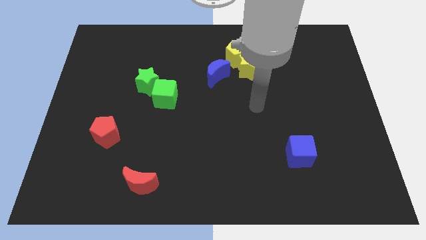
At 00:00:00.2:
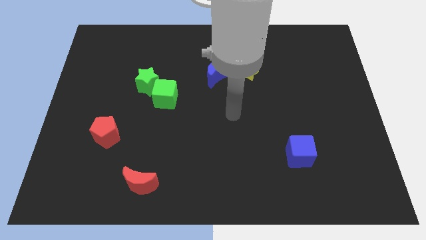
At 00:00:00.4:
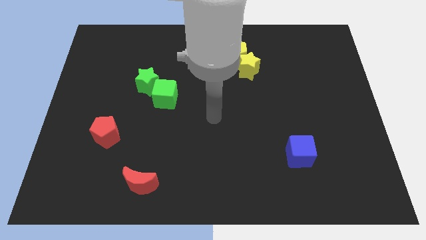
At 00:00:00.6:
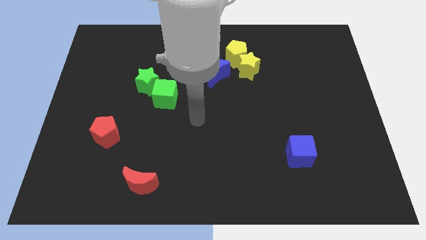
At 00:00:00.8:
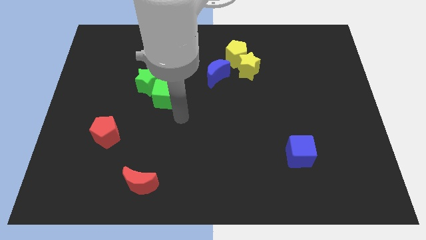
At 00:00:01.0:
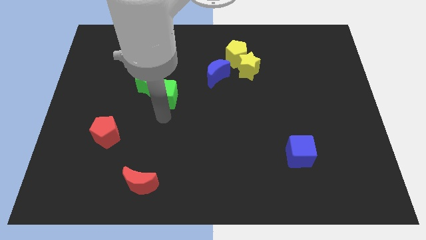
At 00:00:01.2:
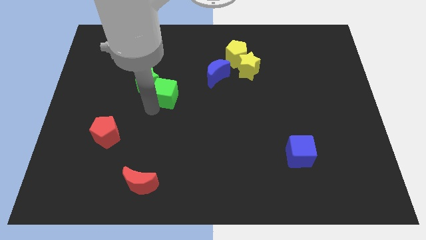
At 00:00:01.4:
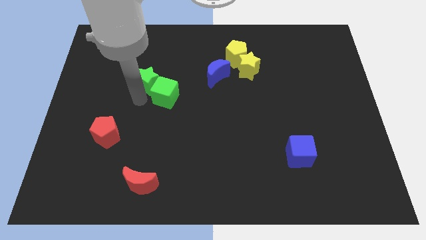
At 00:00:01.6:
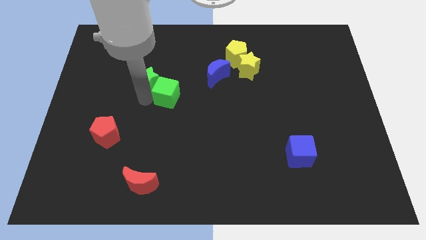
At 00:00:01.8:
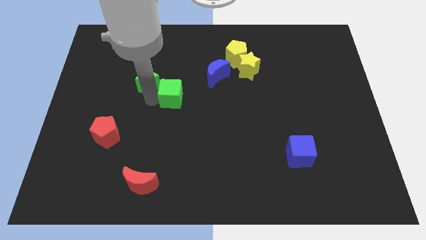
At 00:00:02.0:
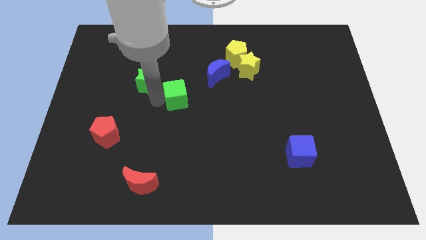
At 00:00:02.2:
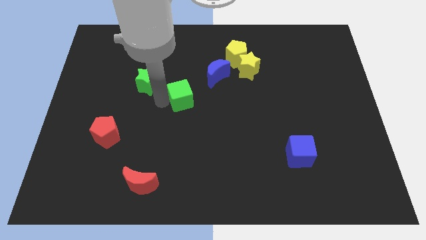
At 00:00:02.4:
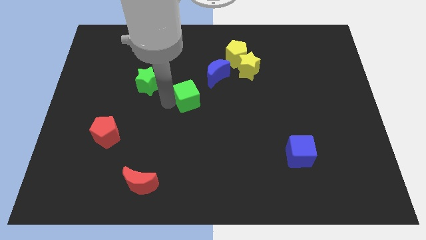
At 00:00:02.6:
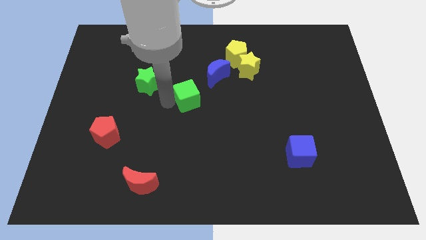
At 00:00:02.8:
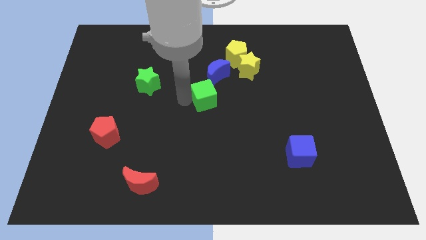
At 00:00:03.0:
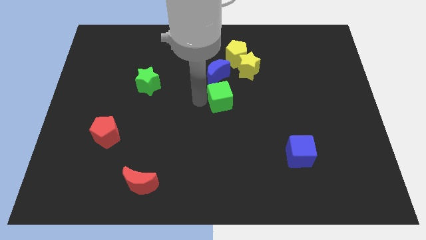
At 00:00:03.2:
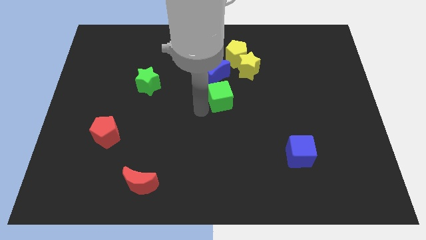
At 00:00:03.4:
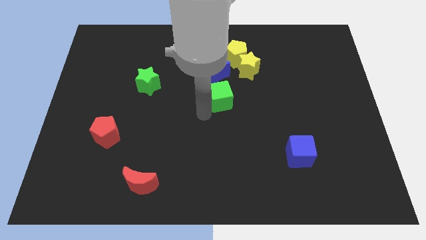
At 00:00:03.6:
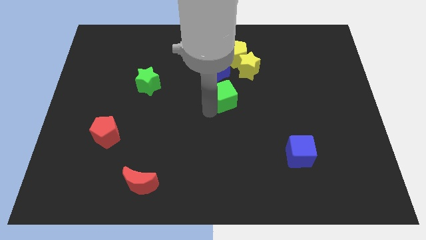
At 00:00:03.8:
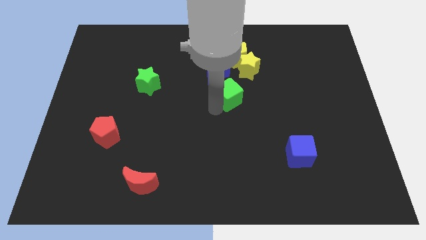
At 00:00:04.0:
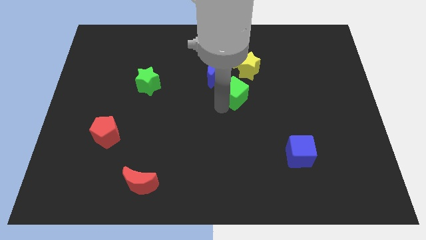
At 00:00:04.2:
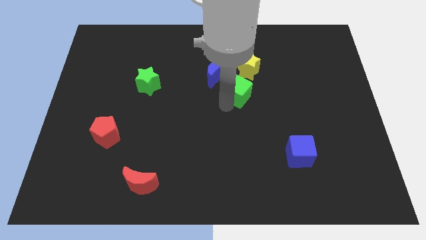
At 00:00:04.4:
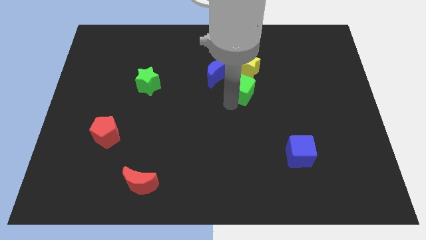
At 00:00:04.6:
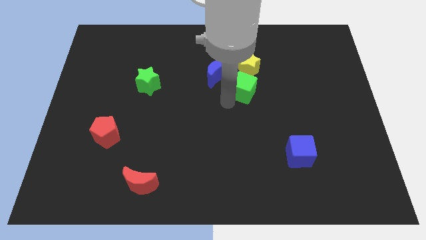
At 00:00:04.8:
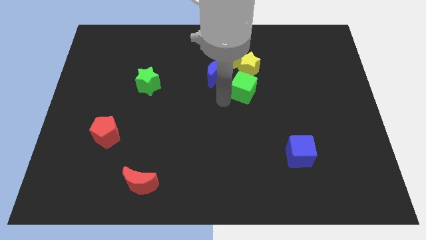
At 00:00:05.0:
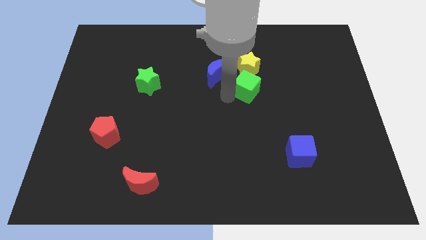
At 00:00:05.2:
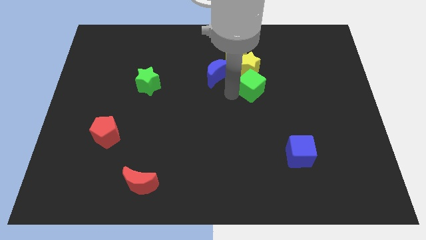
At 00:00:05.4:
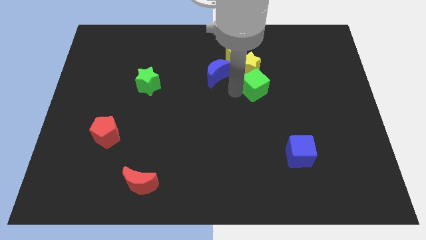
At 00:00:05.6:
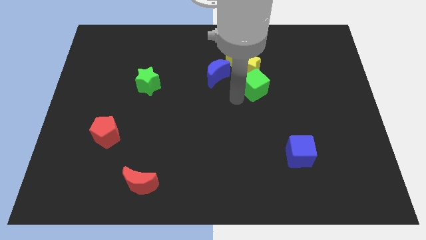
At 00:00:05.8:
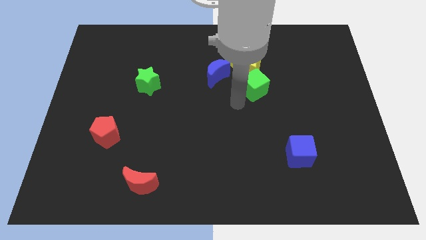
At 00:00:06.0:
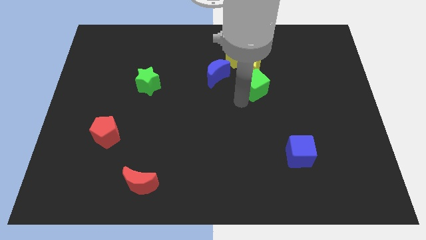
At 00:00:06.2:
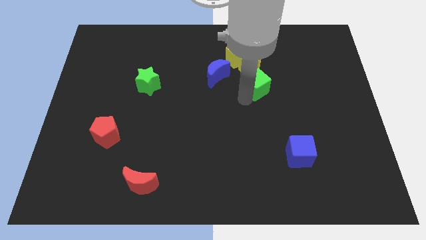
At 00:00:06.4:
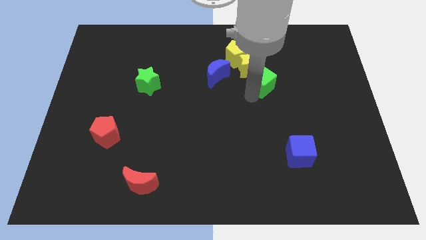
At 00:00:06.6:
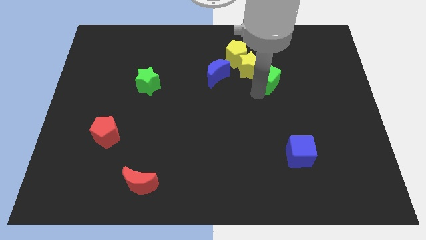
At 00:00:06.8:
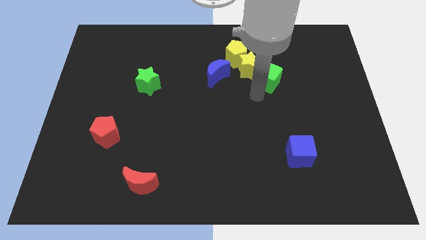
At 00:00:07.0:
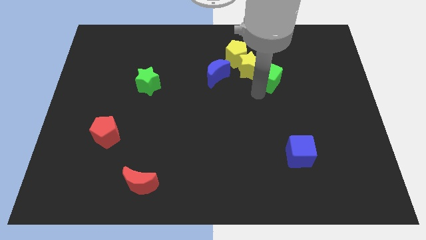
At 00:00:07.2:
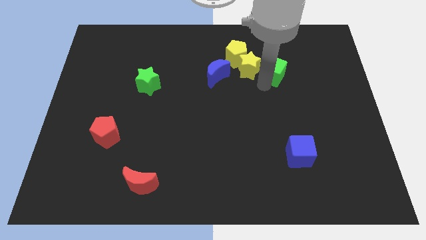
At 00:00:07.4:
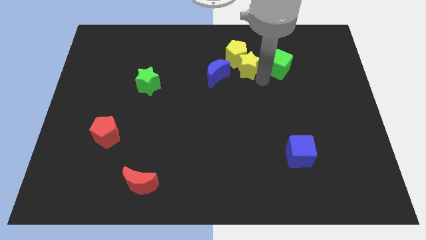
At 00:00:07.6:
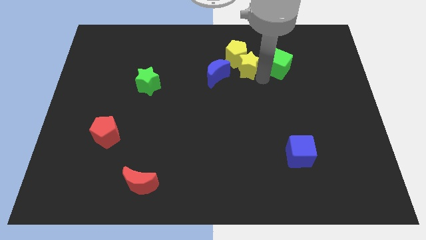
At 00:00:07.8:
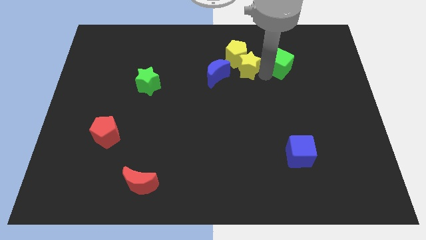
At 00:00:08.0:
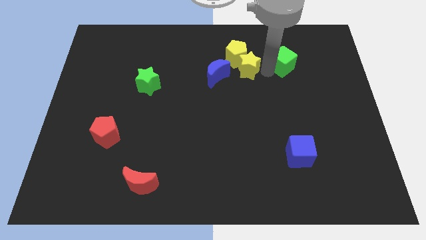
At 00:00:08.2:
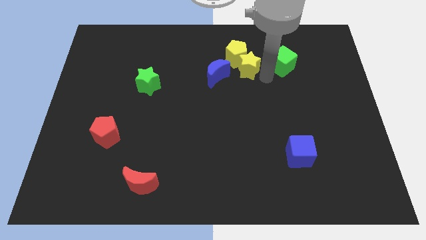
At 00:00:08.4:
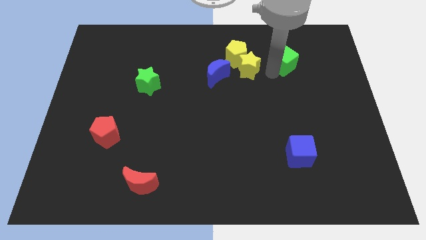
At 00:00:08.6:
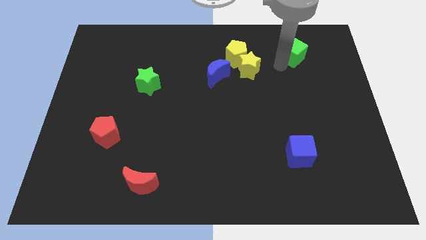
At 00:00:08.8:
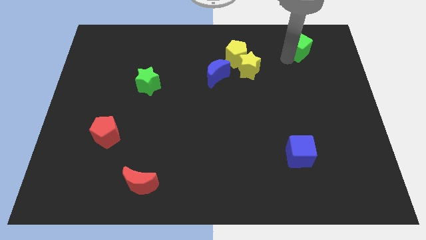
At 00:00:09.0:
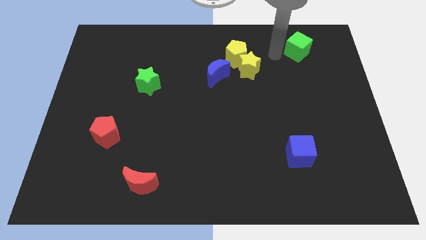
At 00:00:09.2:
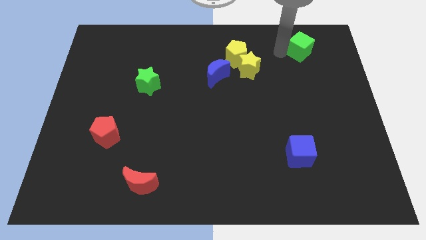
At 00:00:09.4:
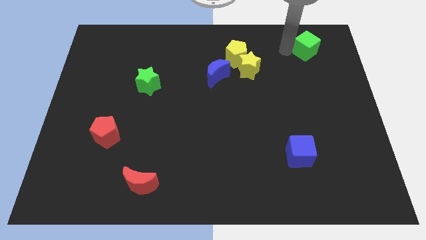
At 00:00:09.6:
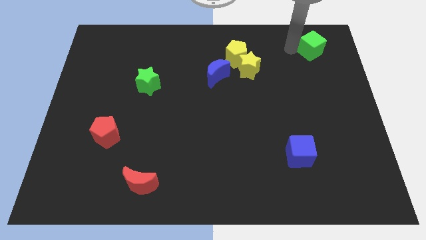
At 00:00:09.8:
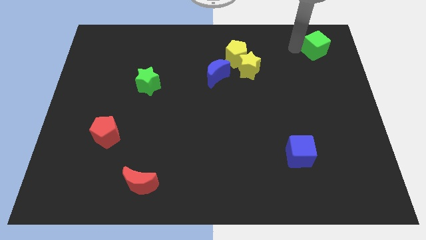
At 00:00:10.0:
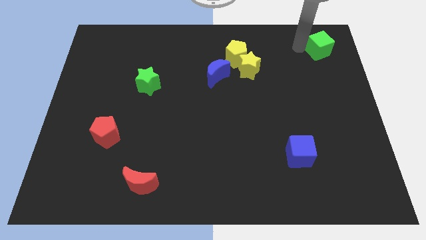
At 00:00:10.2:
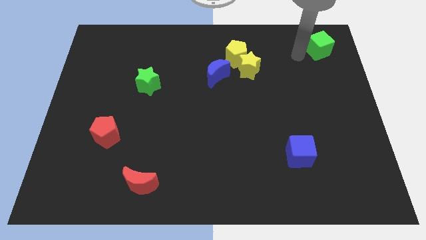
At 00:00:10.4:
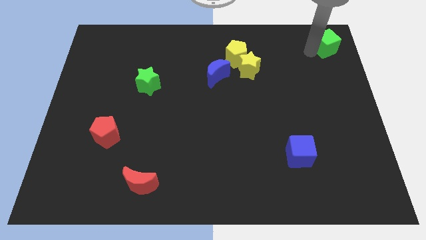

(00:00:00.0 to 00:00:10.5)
move the green cube to the top right of the board

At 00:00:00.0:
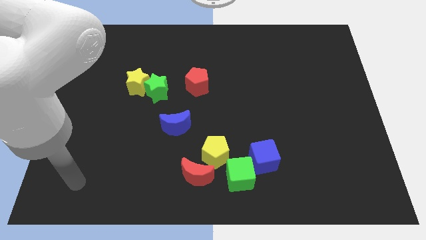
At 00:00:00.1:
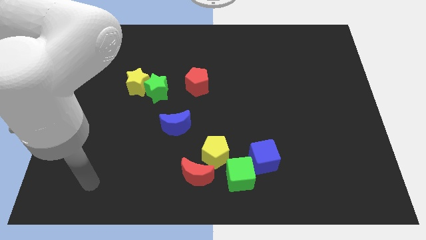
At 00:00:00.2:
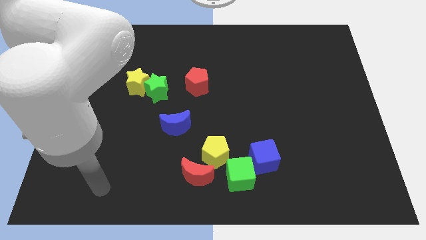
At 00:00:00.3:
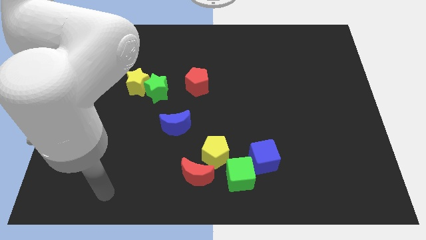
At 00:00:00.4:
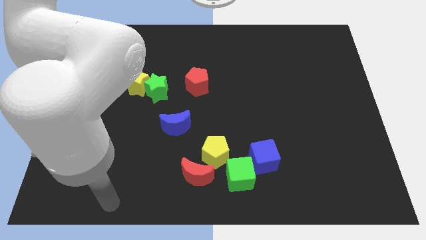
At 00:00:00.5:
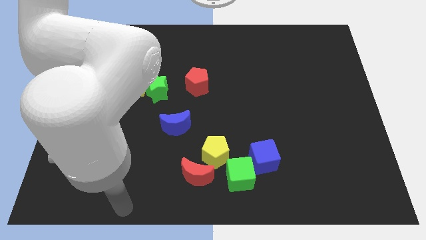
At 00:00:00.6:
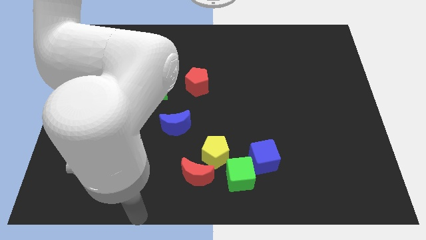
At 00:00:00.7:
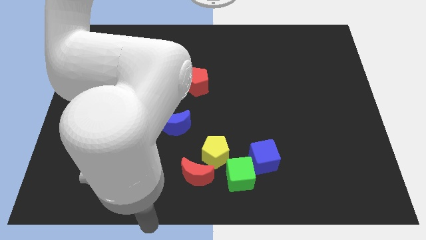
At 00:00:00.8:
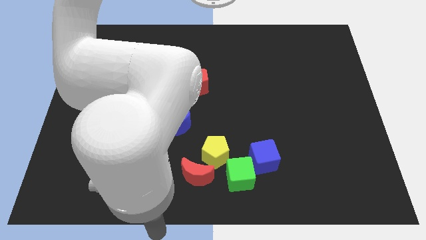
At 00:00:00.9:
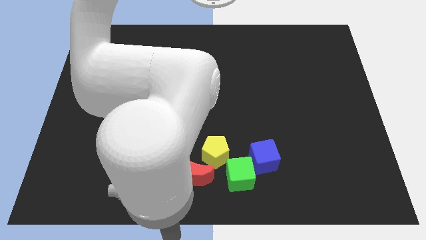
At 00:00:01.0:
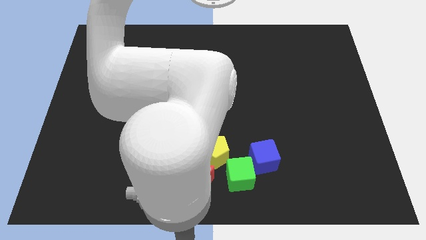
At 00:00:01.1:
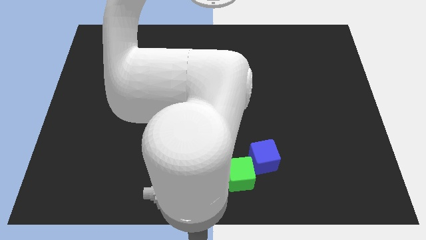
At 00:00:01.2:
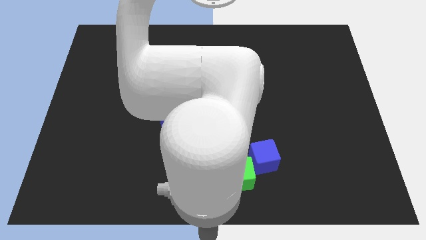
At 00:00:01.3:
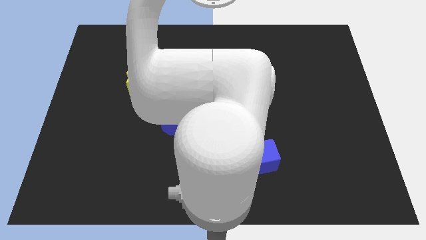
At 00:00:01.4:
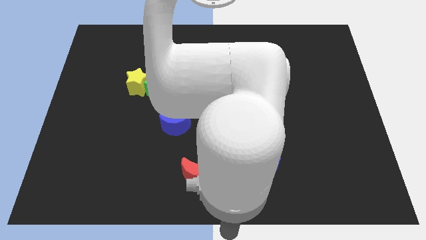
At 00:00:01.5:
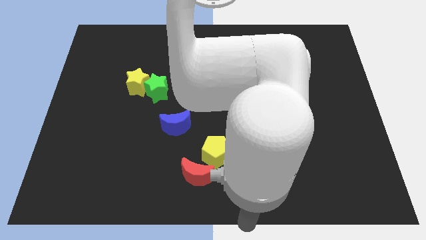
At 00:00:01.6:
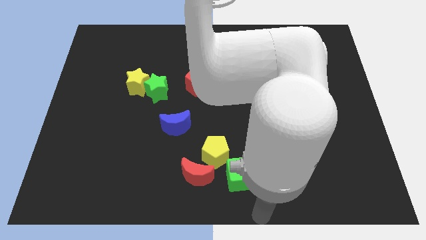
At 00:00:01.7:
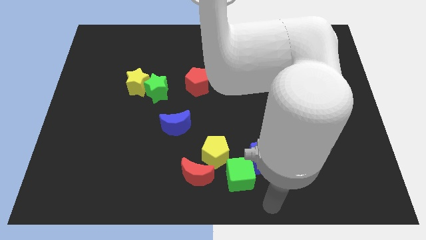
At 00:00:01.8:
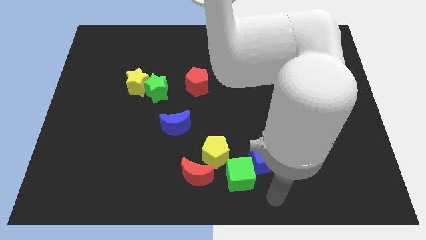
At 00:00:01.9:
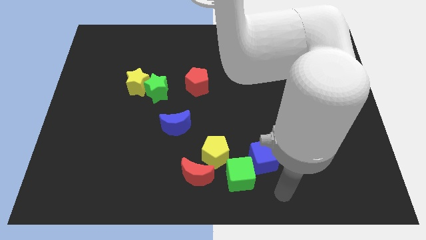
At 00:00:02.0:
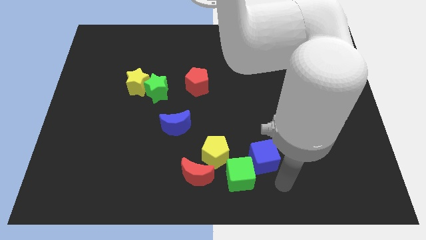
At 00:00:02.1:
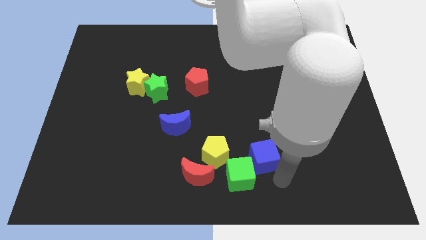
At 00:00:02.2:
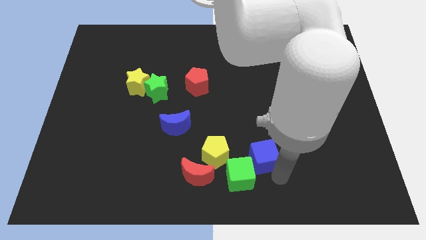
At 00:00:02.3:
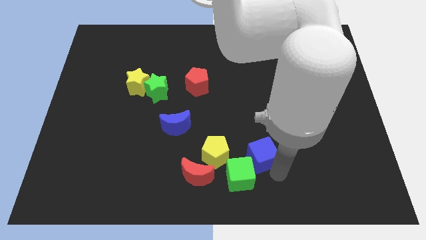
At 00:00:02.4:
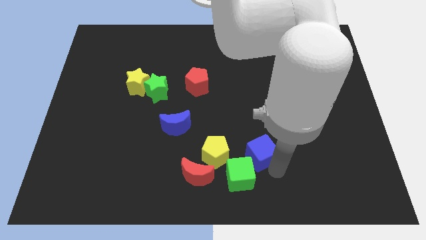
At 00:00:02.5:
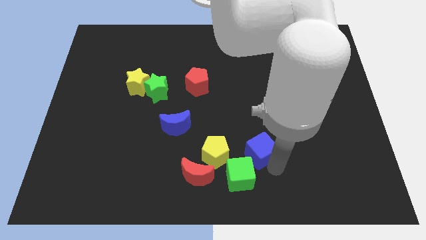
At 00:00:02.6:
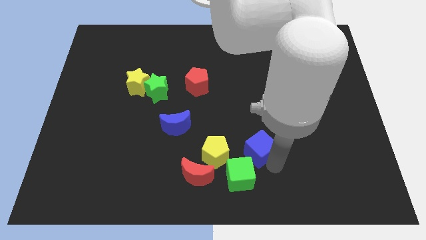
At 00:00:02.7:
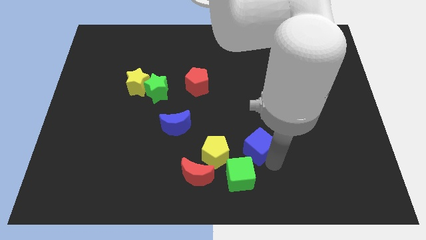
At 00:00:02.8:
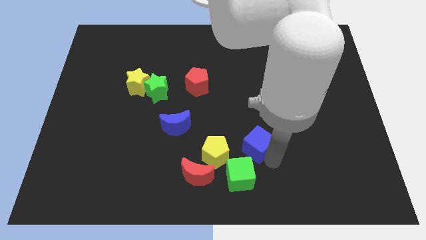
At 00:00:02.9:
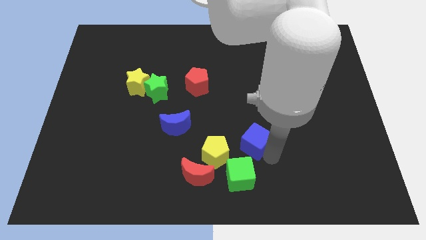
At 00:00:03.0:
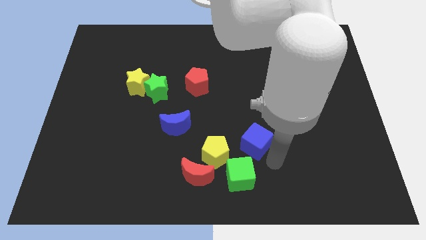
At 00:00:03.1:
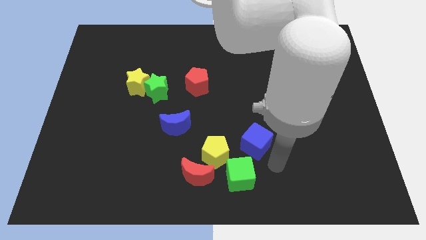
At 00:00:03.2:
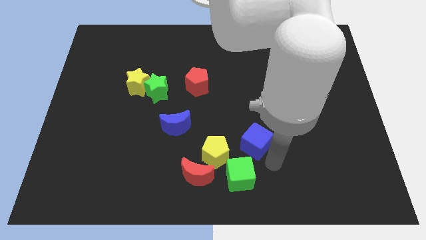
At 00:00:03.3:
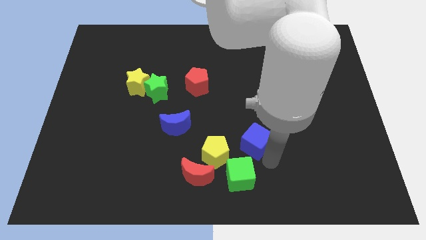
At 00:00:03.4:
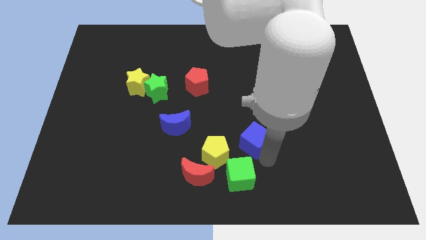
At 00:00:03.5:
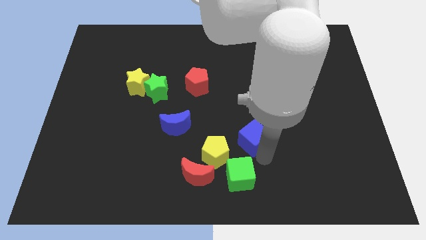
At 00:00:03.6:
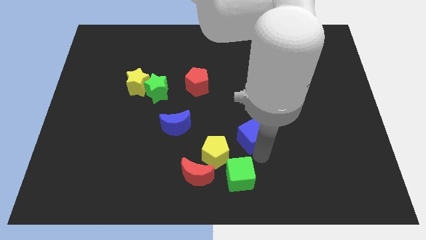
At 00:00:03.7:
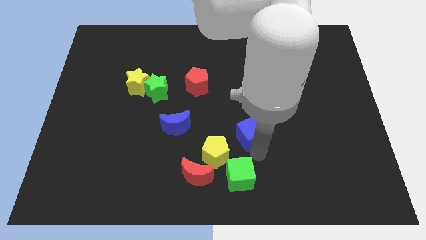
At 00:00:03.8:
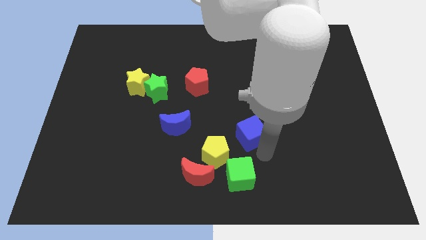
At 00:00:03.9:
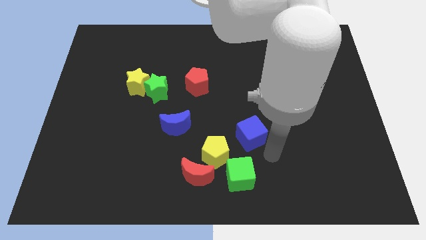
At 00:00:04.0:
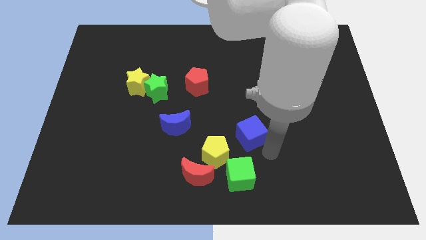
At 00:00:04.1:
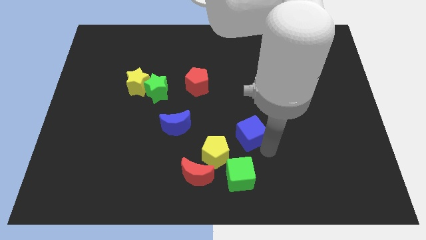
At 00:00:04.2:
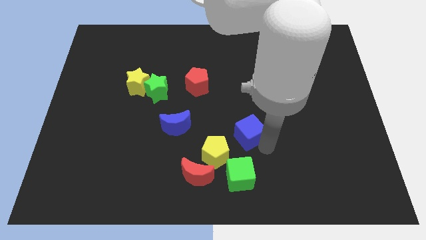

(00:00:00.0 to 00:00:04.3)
slide the blue cube to the middle
